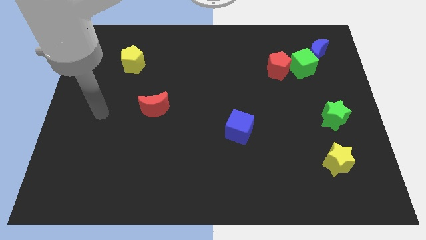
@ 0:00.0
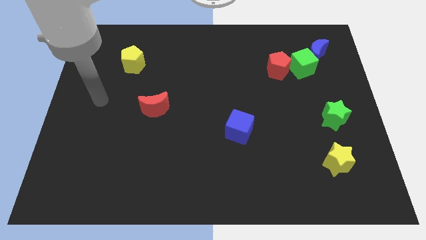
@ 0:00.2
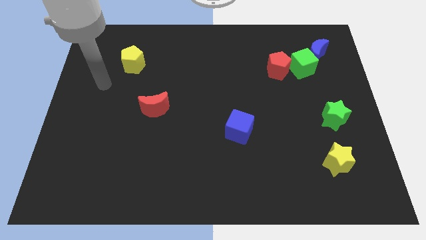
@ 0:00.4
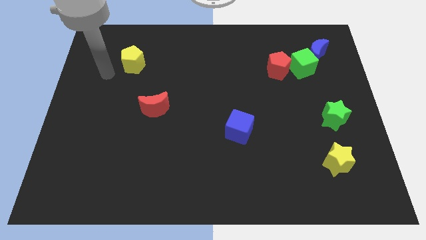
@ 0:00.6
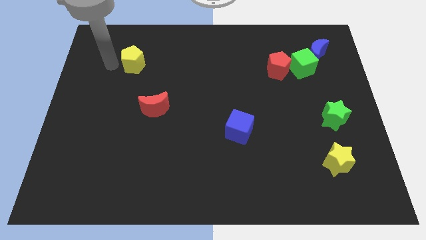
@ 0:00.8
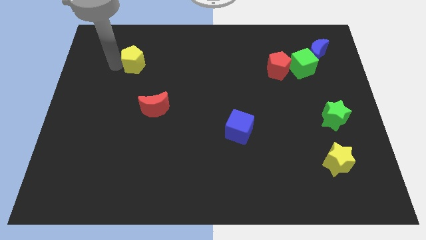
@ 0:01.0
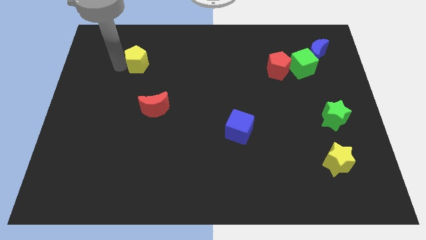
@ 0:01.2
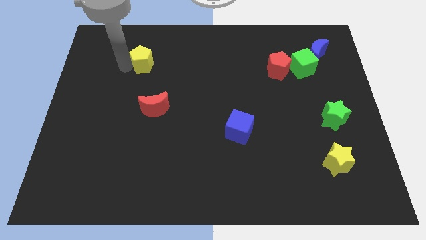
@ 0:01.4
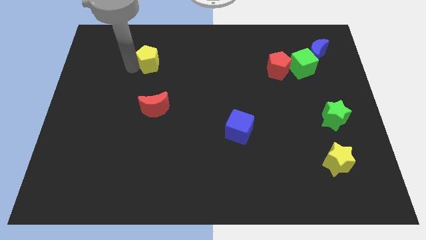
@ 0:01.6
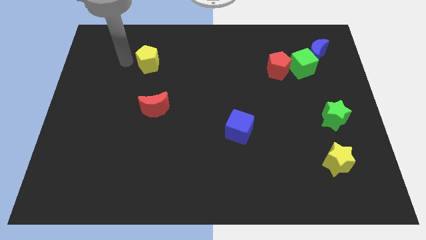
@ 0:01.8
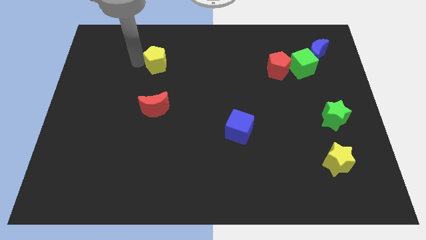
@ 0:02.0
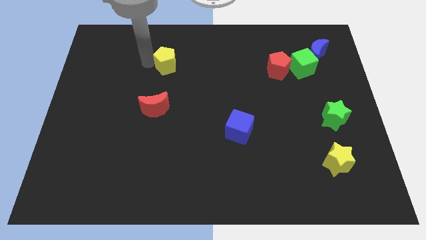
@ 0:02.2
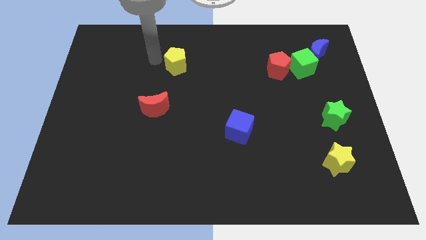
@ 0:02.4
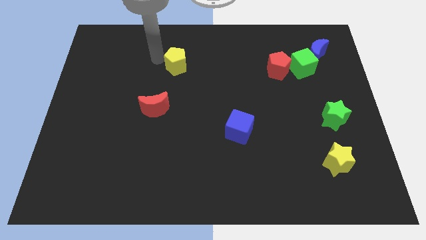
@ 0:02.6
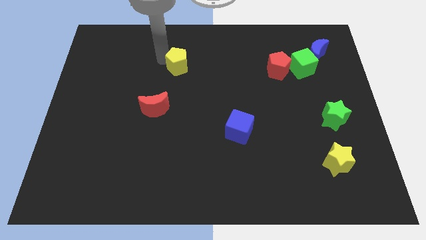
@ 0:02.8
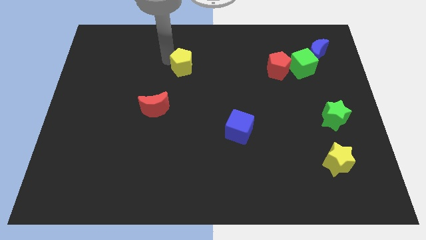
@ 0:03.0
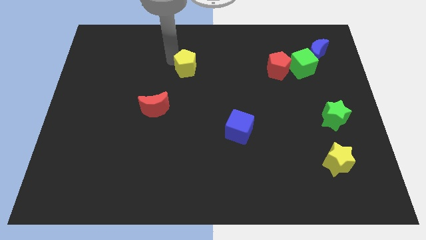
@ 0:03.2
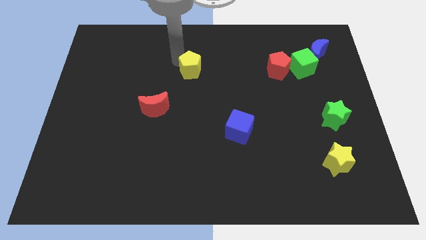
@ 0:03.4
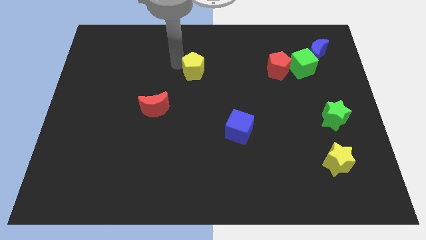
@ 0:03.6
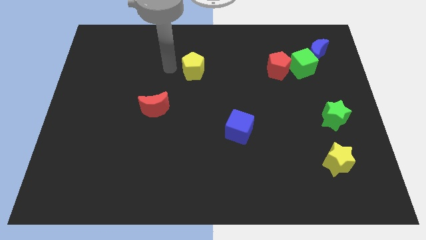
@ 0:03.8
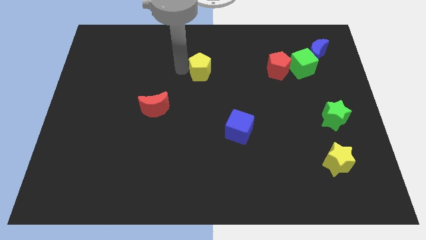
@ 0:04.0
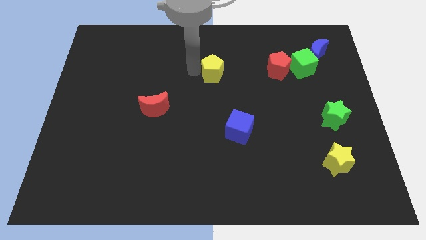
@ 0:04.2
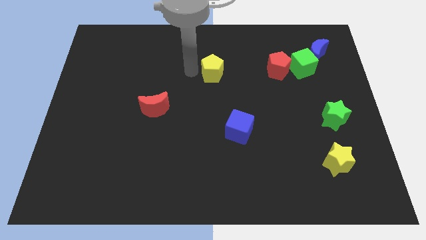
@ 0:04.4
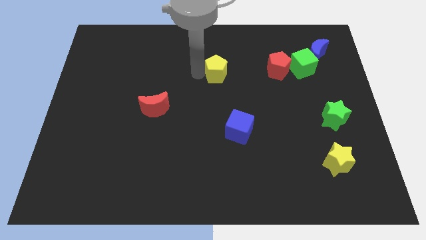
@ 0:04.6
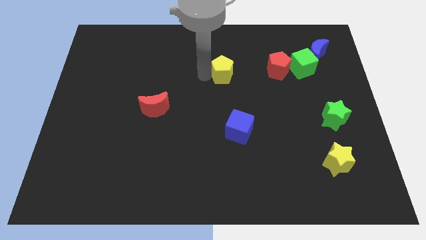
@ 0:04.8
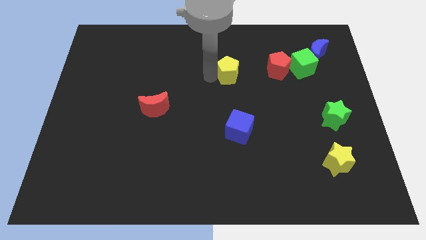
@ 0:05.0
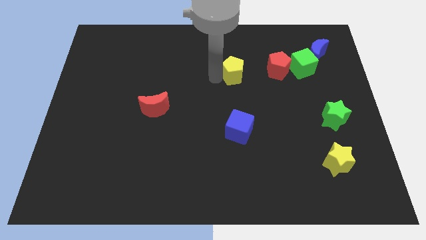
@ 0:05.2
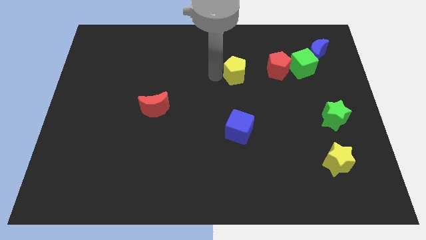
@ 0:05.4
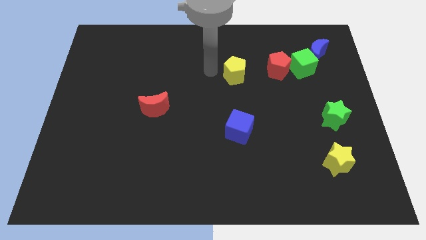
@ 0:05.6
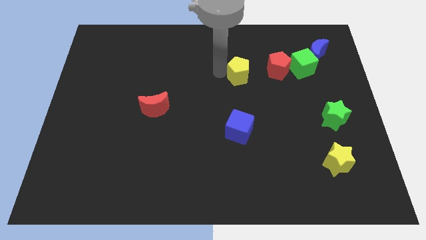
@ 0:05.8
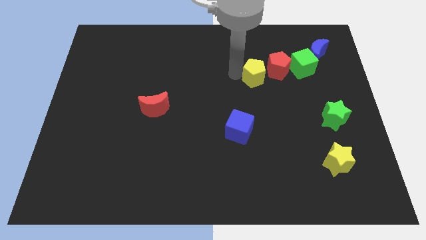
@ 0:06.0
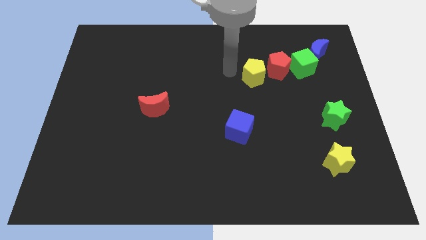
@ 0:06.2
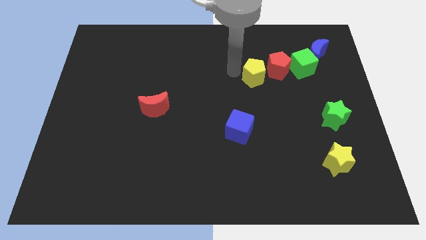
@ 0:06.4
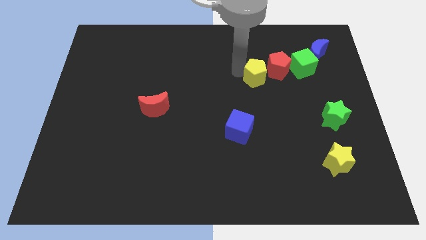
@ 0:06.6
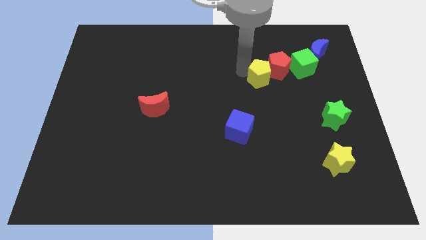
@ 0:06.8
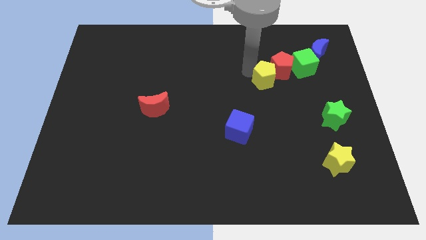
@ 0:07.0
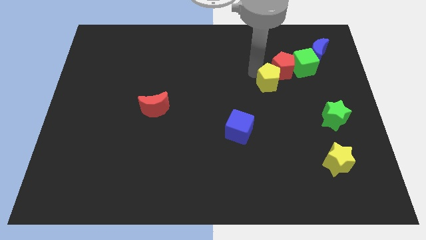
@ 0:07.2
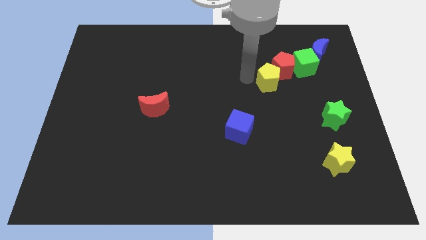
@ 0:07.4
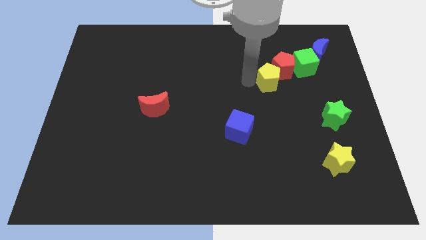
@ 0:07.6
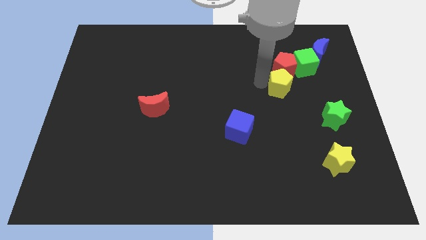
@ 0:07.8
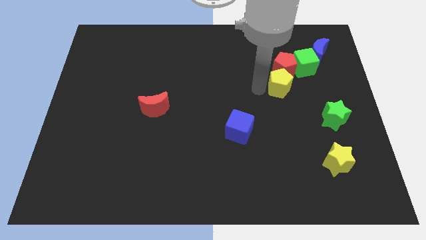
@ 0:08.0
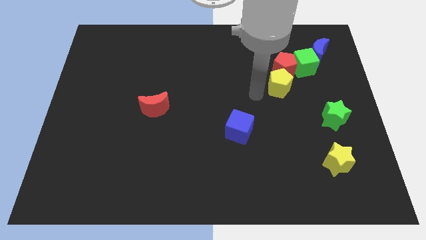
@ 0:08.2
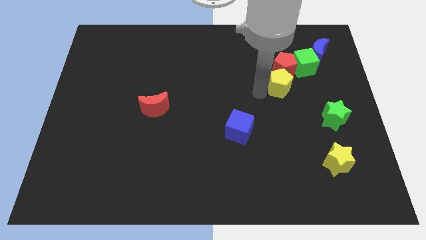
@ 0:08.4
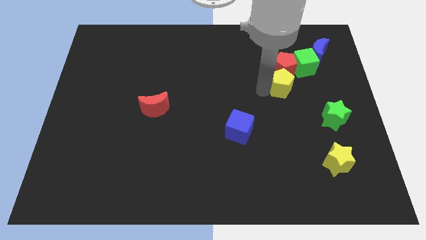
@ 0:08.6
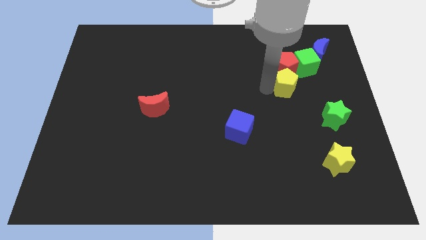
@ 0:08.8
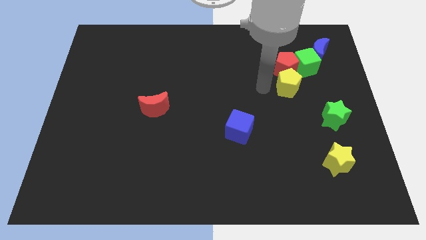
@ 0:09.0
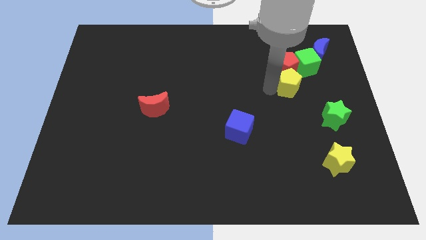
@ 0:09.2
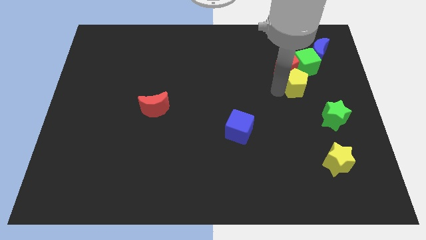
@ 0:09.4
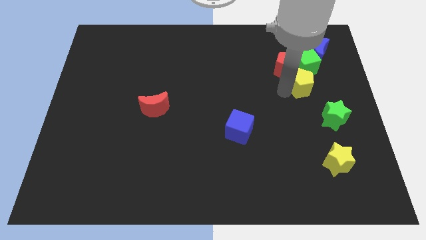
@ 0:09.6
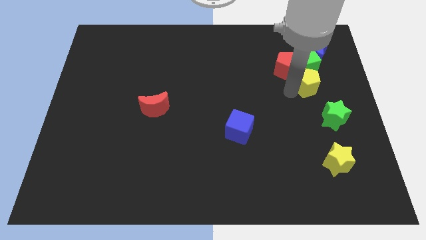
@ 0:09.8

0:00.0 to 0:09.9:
slide the yellow pentagon to the top of the green star

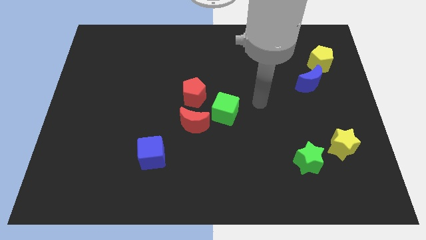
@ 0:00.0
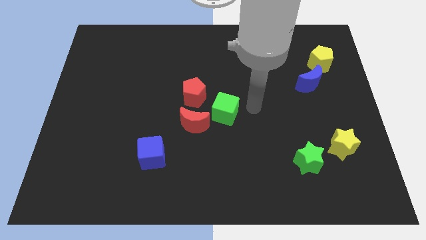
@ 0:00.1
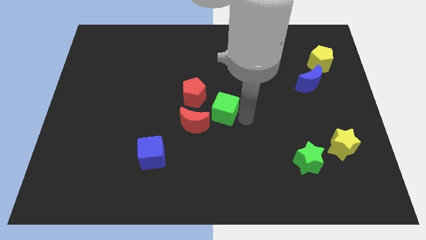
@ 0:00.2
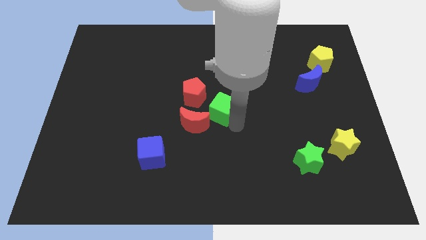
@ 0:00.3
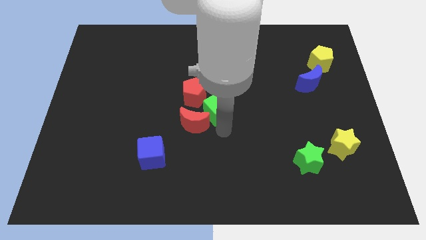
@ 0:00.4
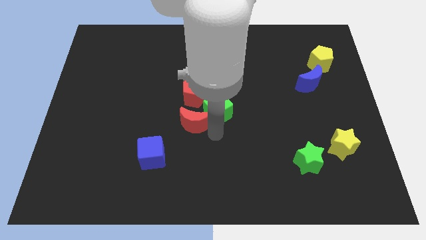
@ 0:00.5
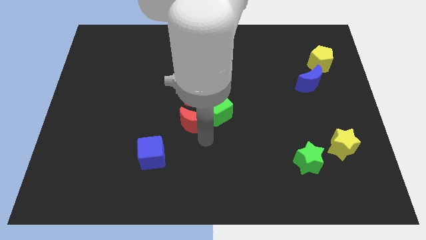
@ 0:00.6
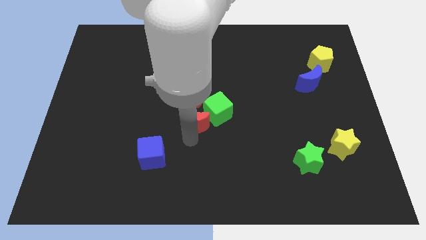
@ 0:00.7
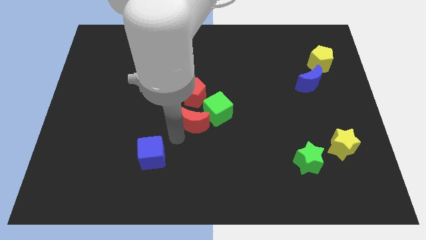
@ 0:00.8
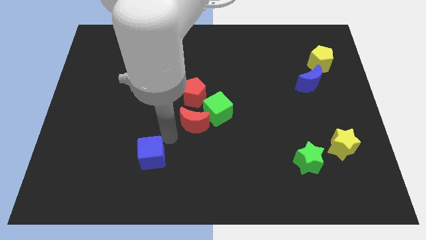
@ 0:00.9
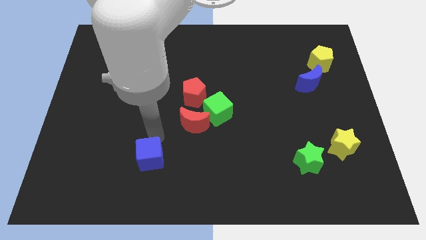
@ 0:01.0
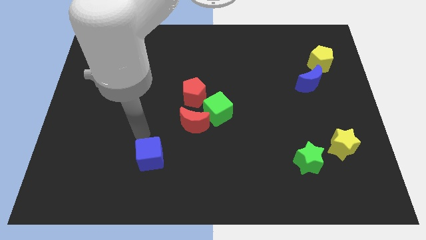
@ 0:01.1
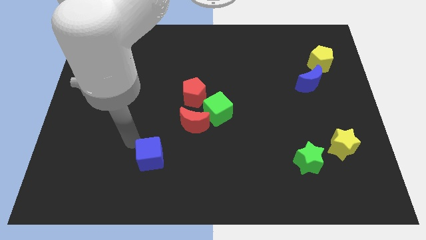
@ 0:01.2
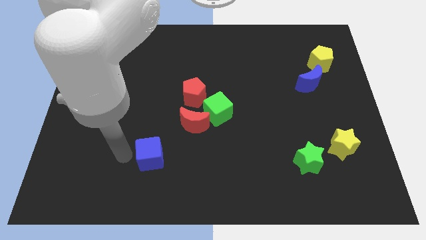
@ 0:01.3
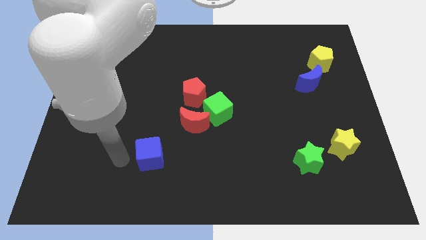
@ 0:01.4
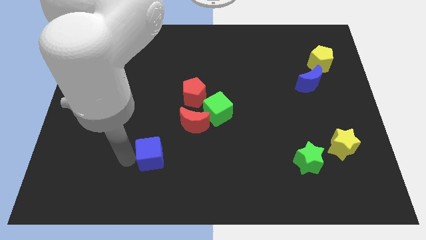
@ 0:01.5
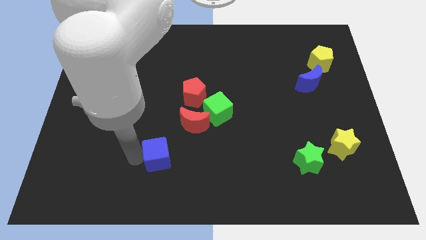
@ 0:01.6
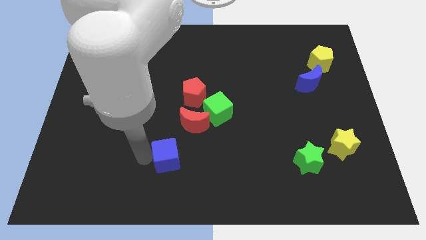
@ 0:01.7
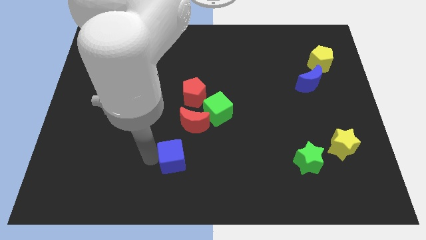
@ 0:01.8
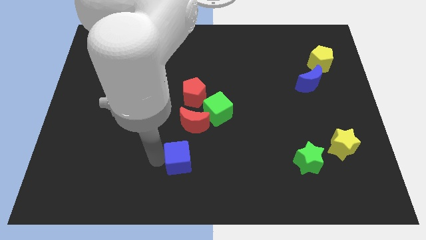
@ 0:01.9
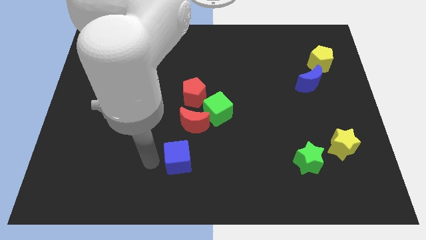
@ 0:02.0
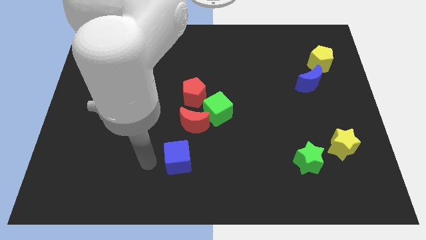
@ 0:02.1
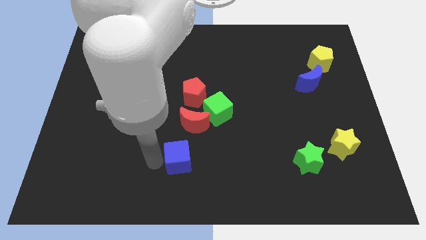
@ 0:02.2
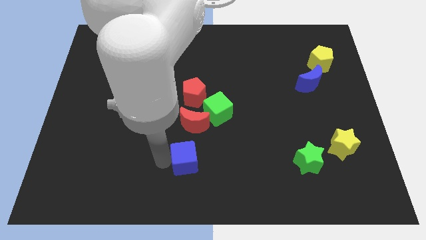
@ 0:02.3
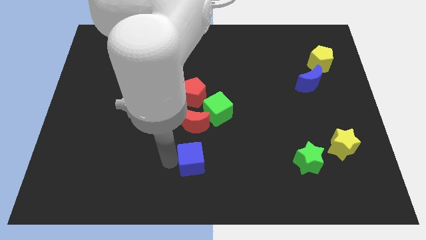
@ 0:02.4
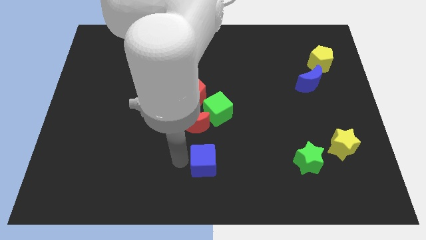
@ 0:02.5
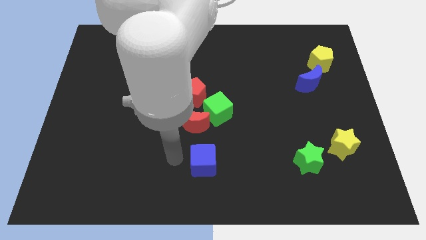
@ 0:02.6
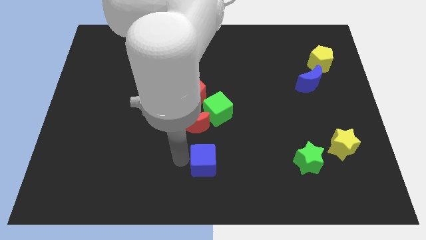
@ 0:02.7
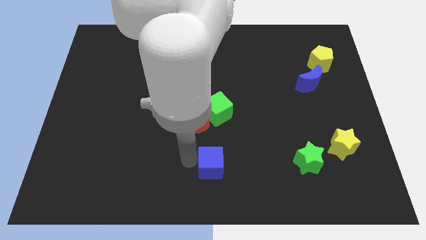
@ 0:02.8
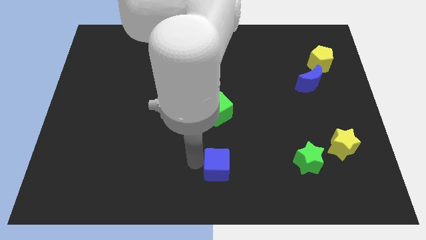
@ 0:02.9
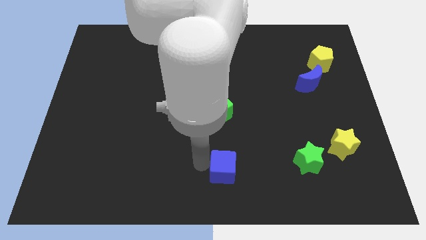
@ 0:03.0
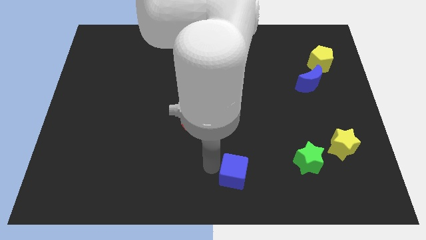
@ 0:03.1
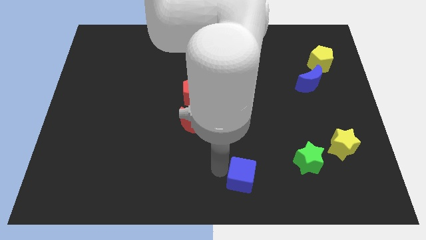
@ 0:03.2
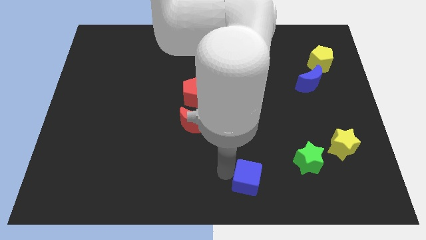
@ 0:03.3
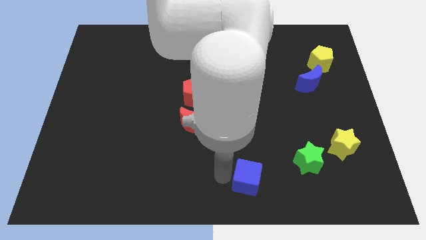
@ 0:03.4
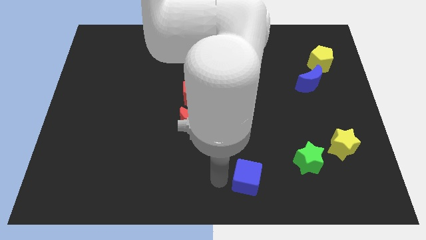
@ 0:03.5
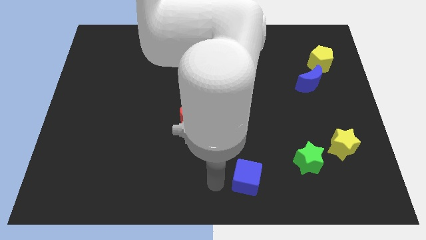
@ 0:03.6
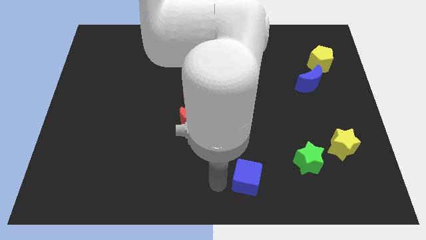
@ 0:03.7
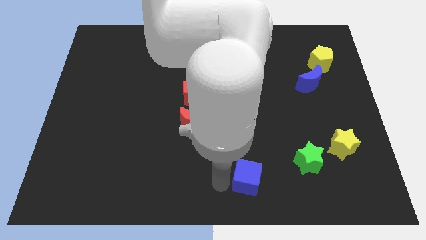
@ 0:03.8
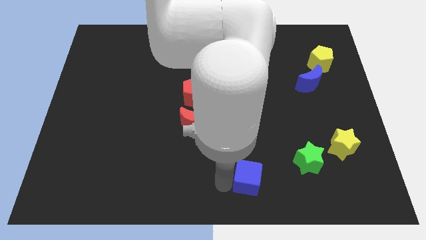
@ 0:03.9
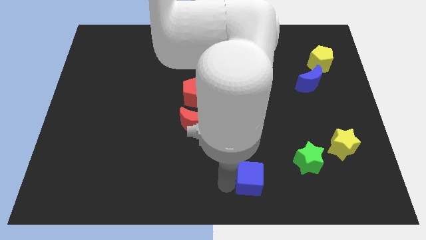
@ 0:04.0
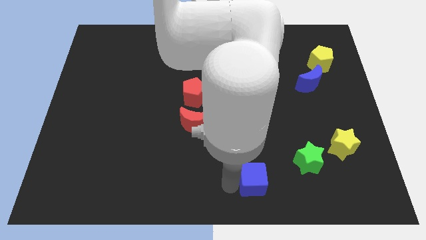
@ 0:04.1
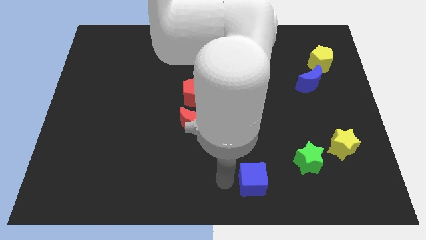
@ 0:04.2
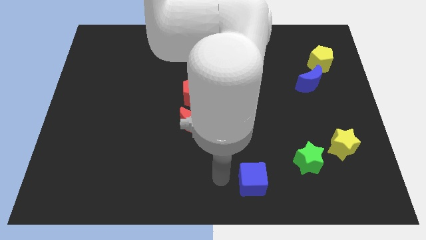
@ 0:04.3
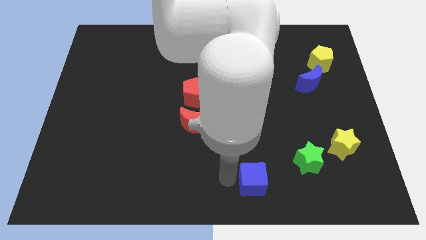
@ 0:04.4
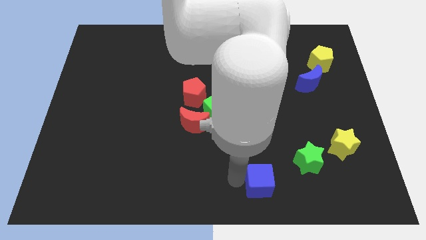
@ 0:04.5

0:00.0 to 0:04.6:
push the blue cube to the bottom left side of the green star
